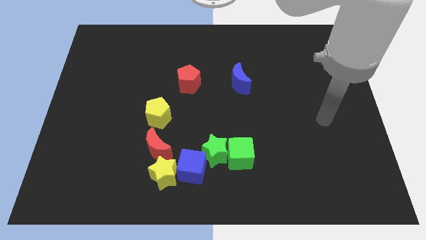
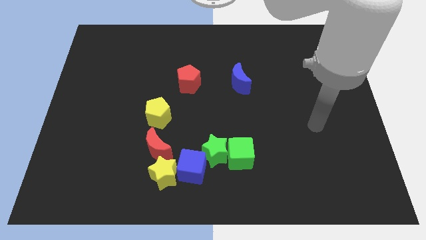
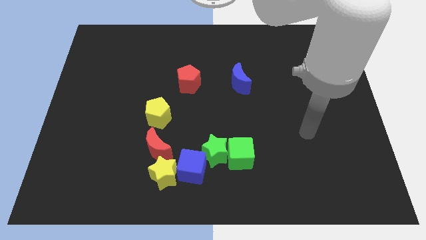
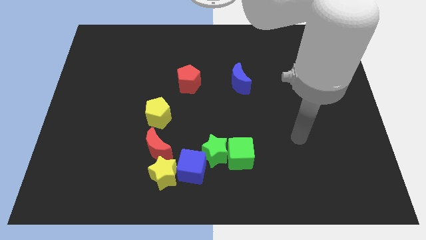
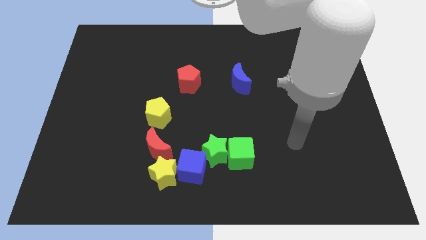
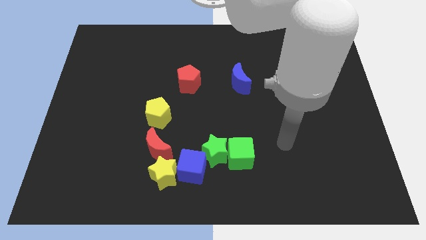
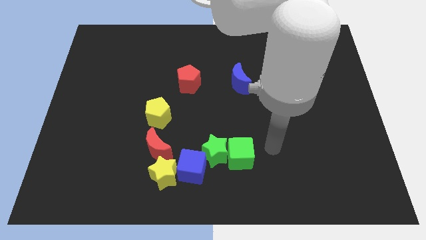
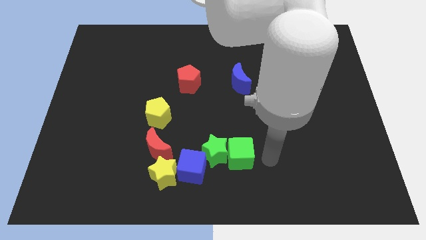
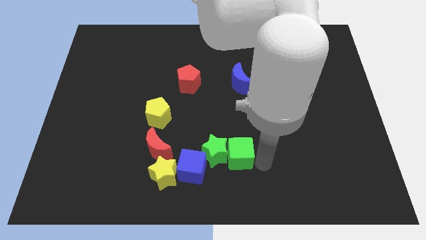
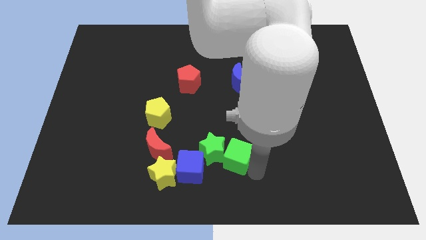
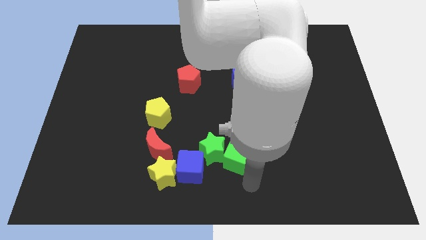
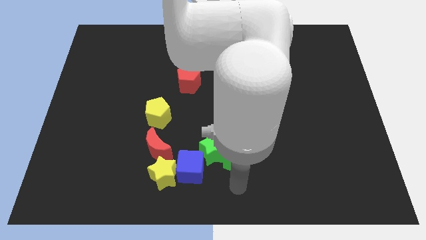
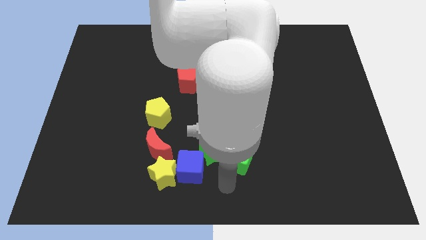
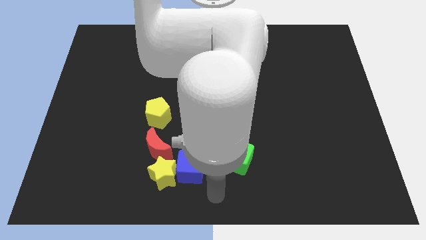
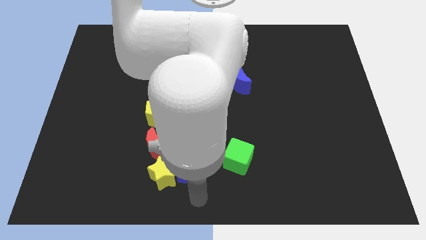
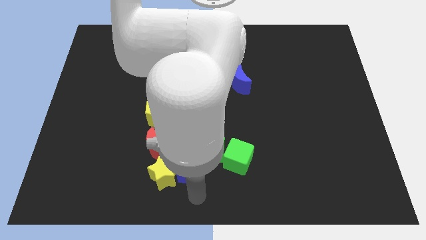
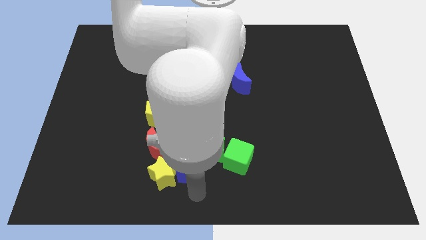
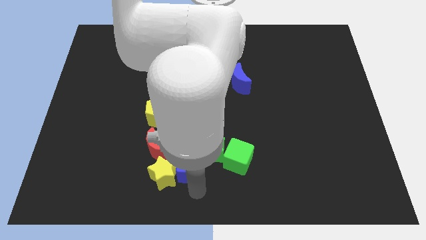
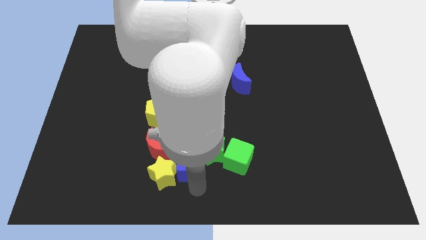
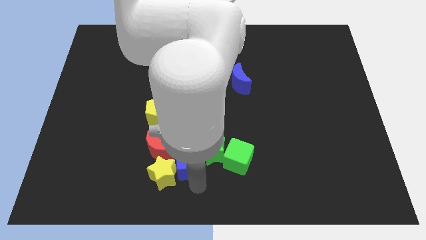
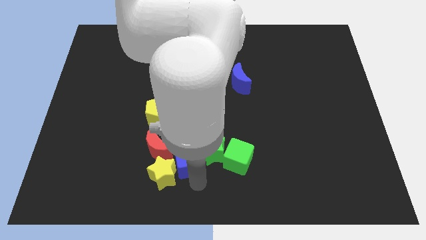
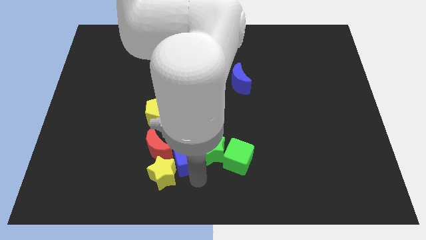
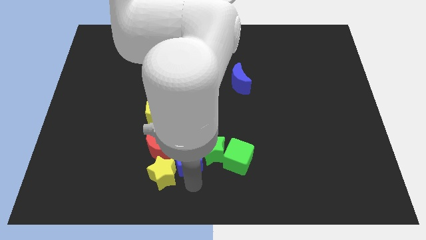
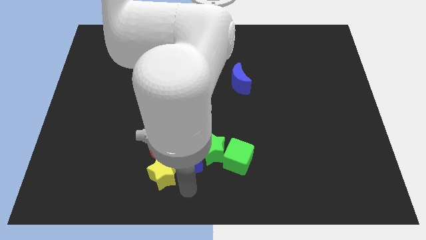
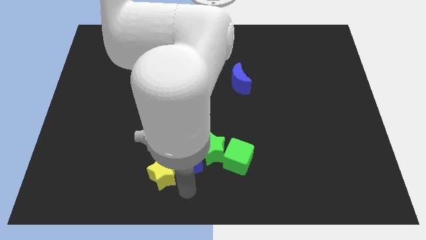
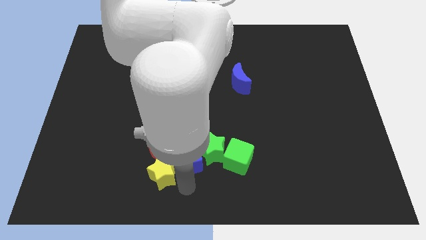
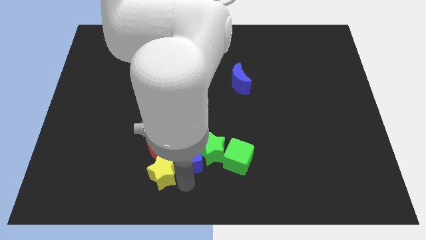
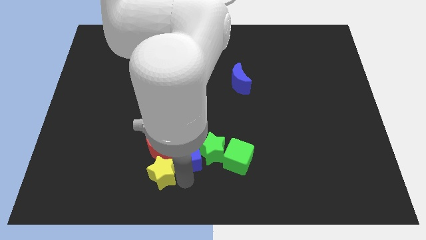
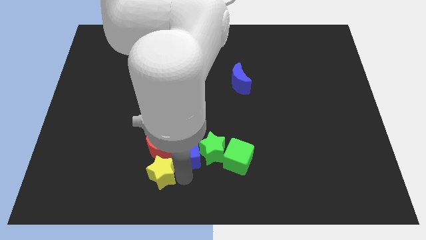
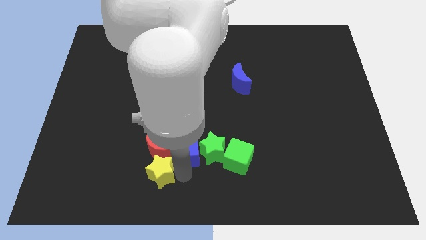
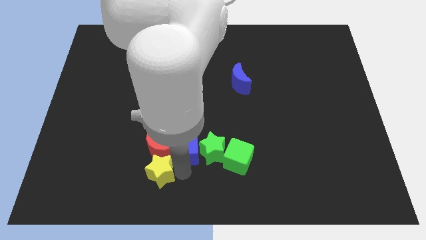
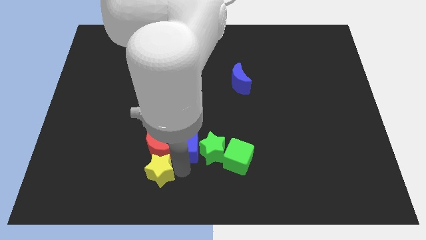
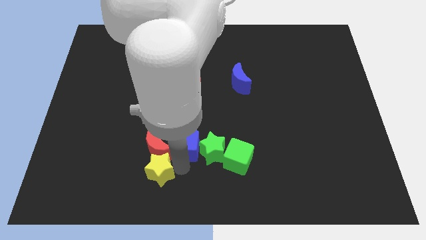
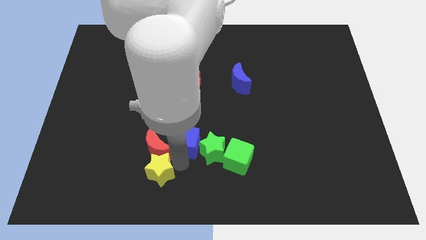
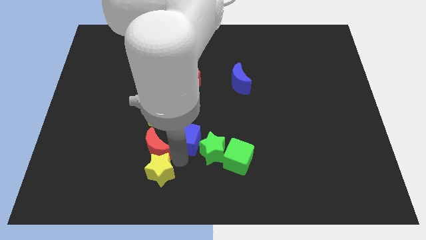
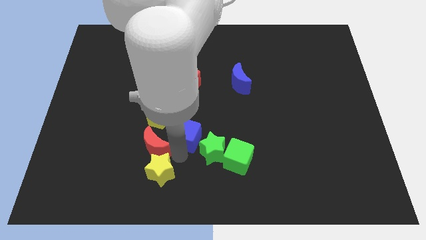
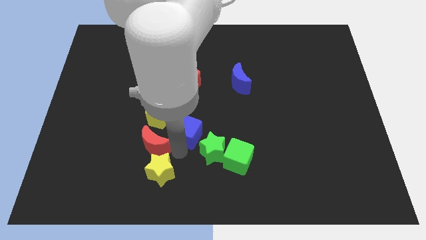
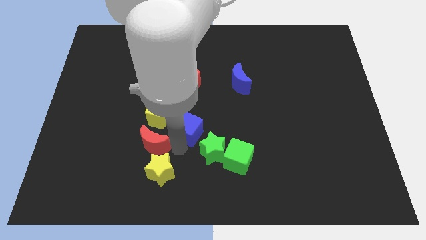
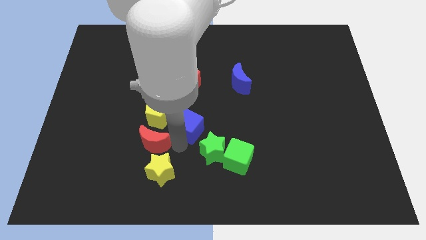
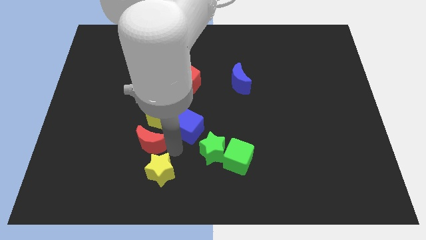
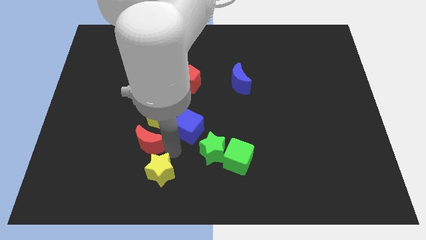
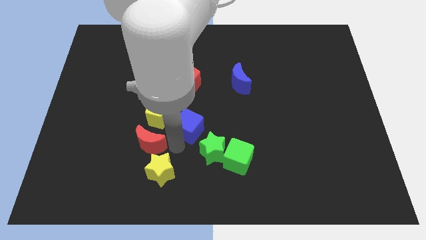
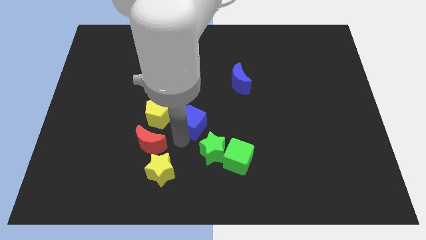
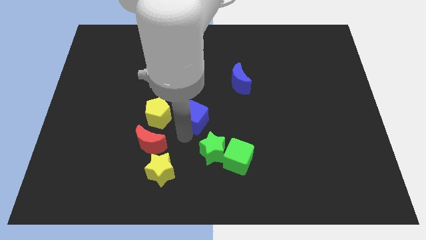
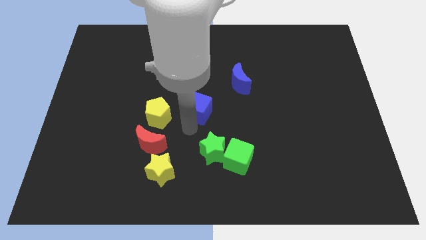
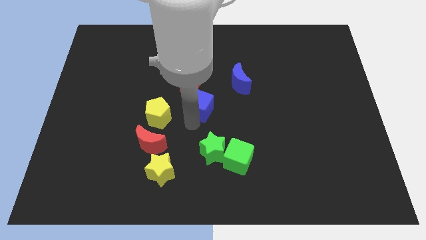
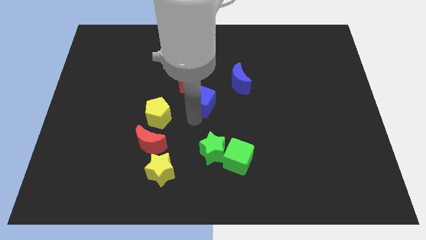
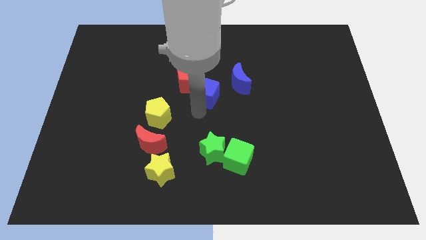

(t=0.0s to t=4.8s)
push the blue cube up

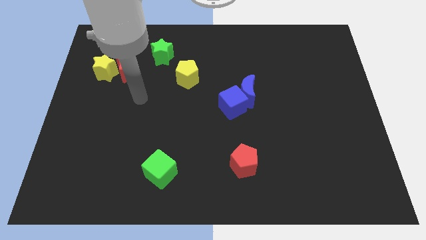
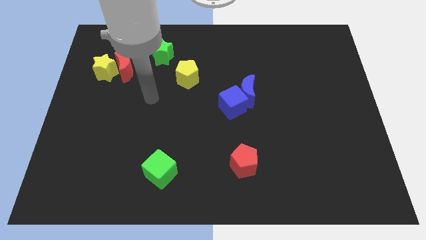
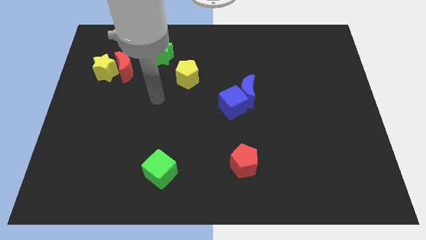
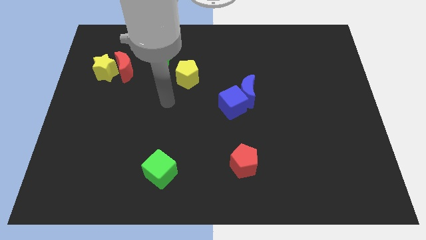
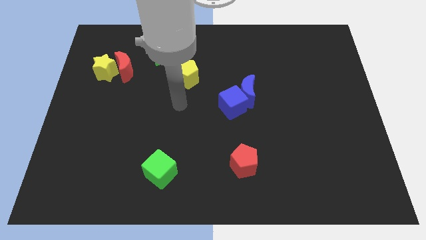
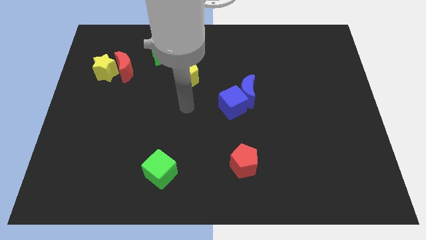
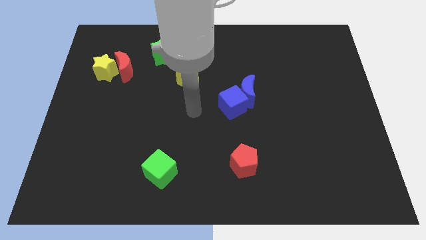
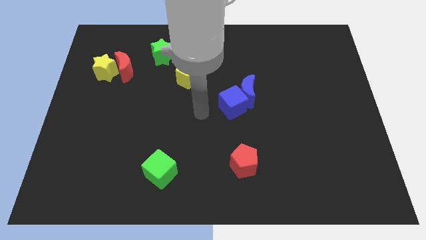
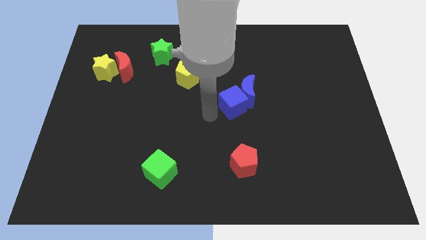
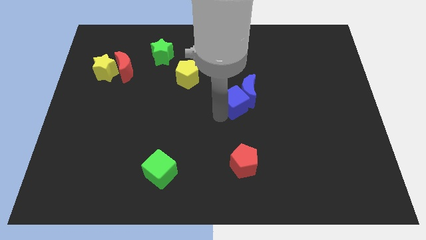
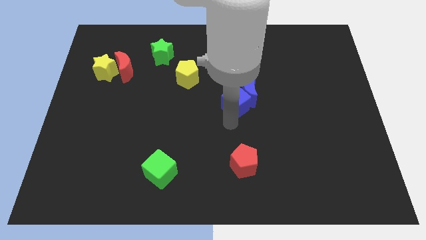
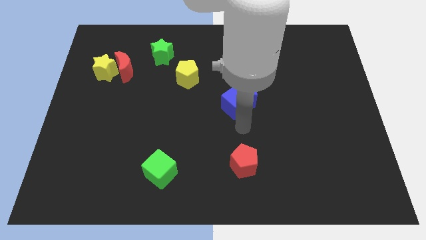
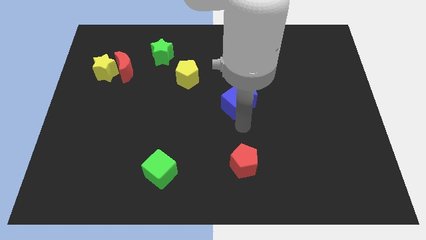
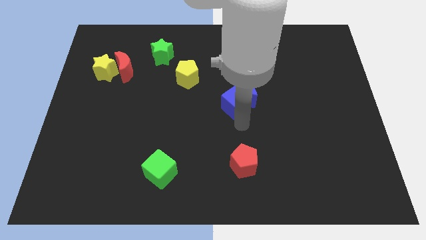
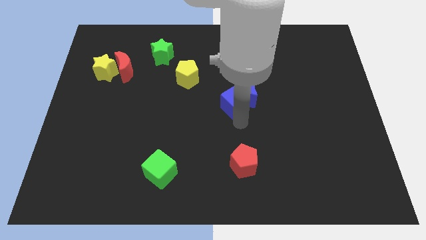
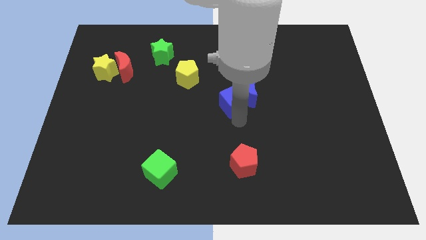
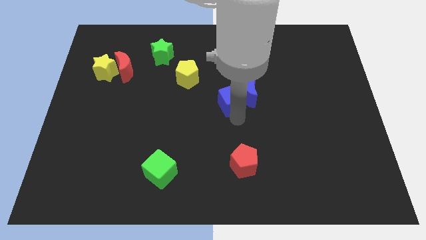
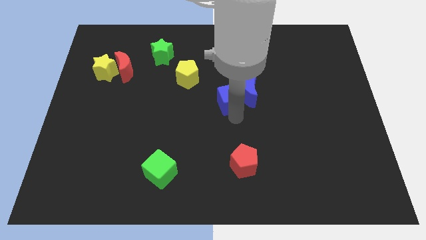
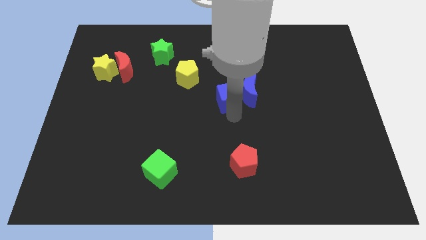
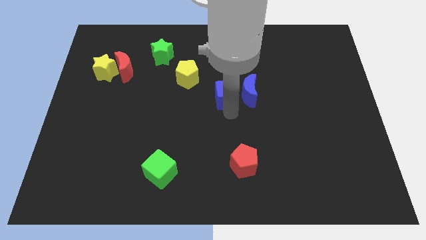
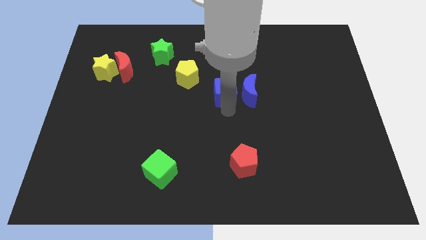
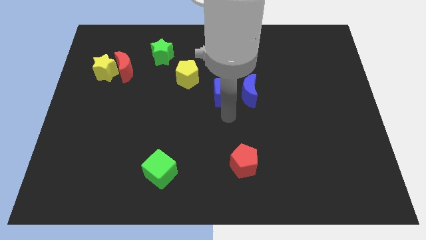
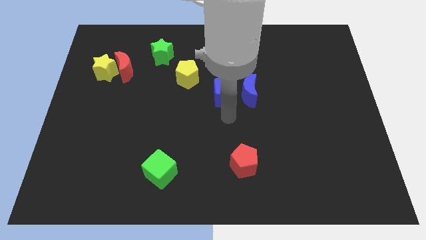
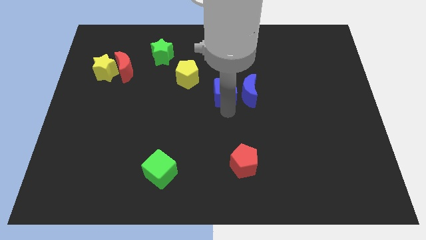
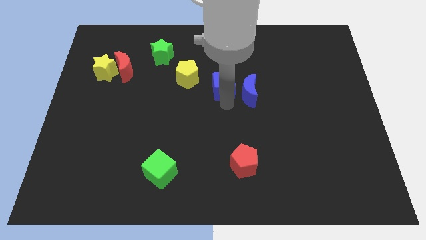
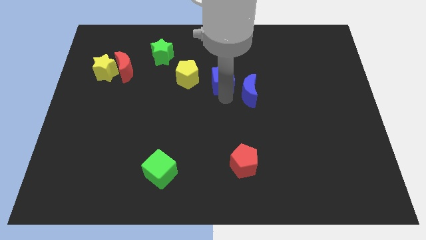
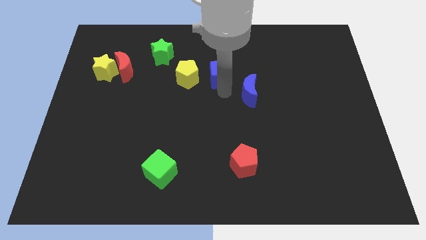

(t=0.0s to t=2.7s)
move the blue cube somewhat diagonally up and to the left

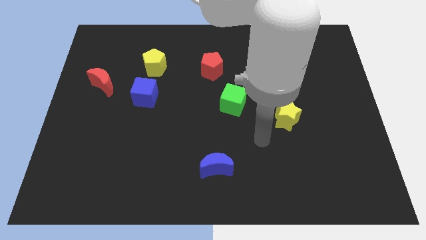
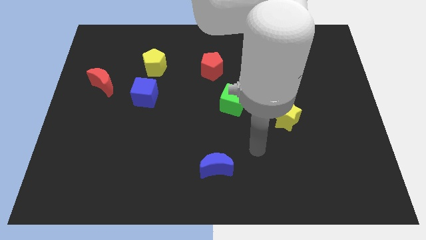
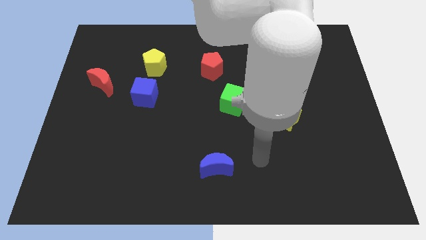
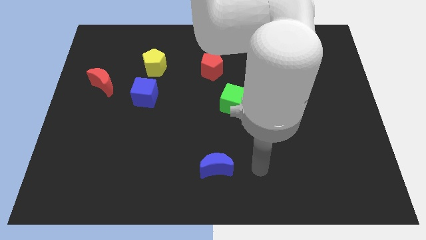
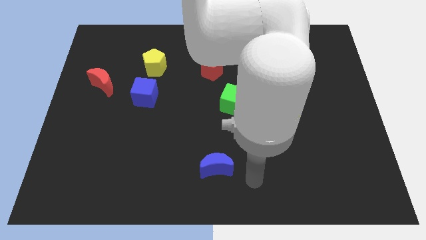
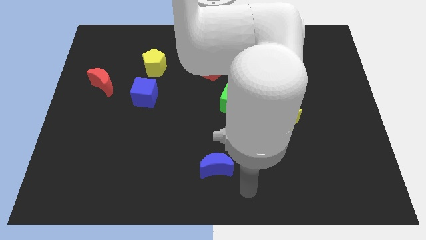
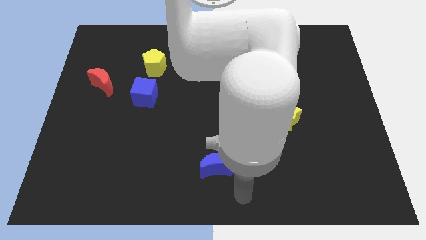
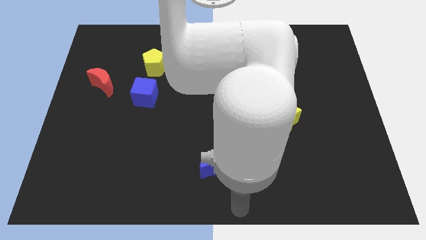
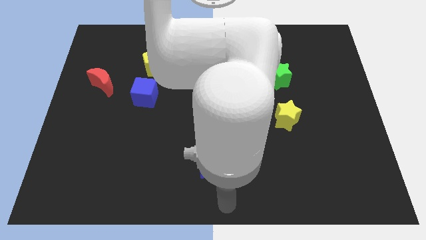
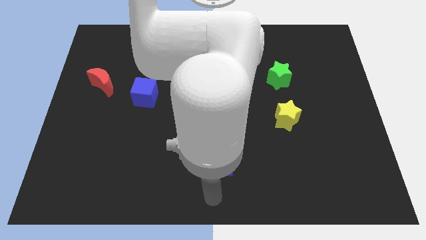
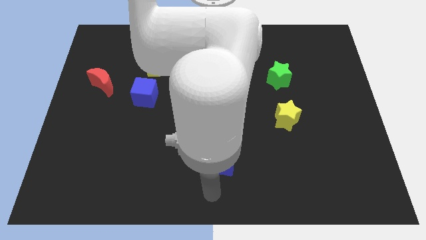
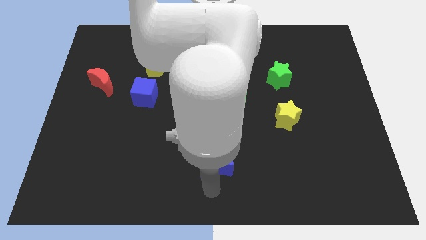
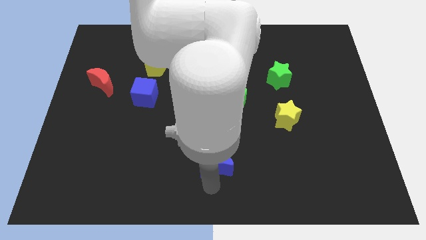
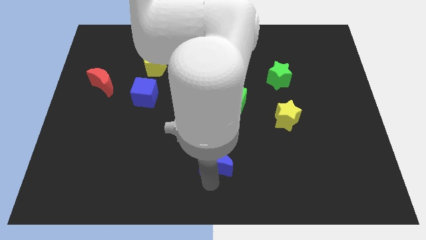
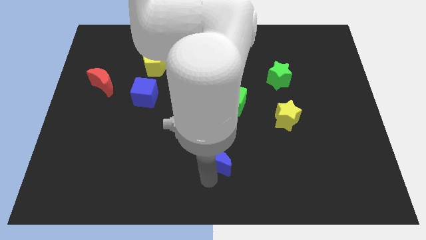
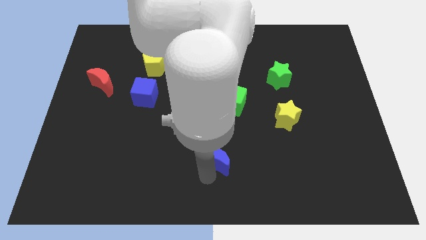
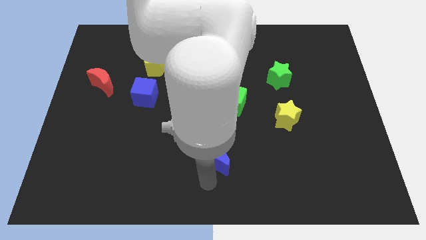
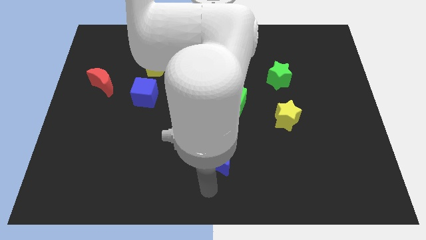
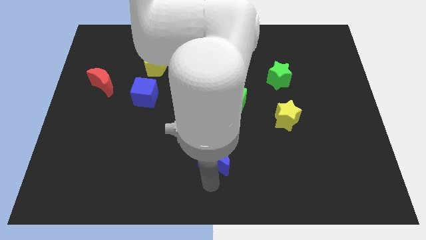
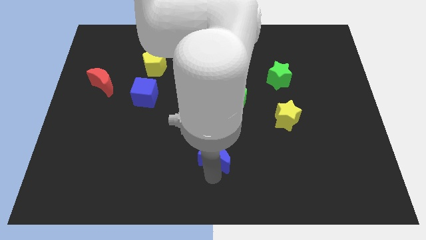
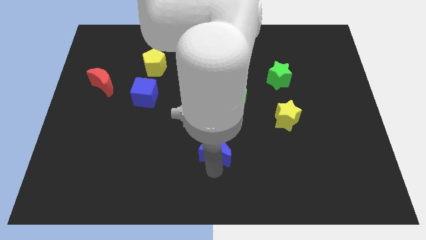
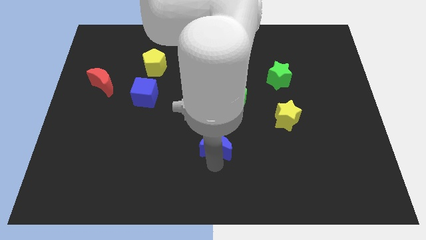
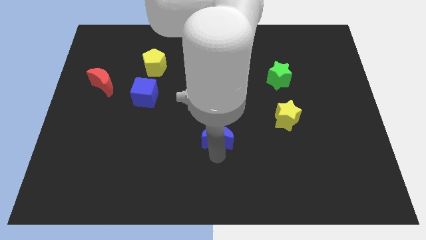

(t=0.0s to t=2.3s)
slightly slide the blue moon up
